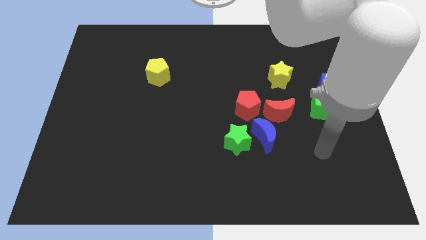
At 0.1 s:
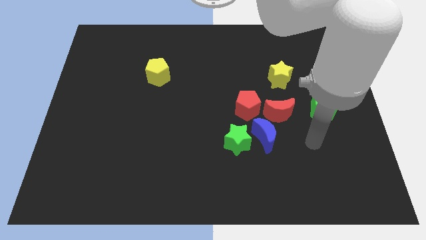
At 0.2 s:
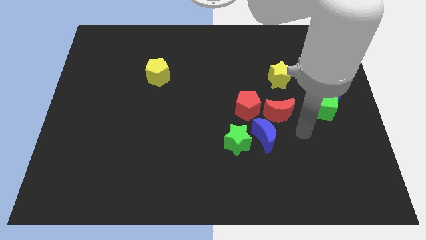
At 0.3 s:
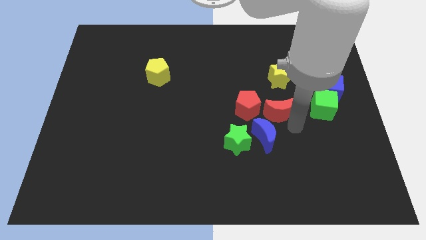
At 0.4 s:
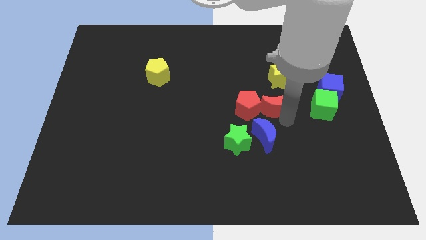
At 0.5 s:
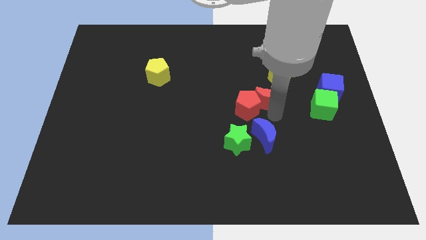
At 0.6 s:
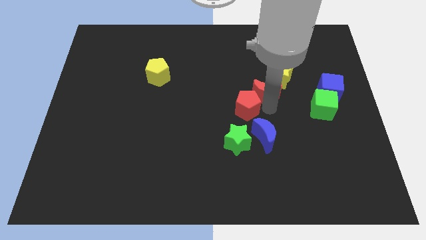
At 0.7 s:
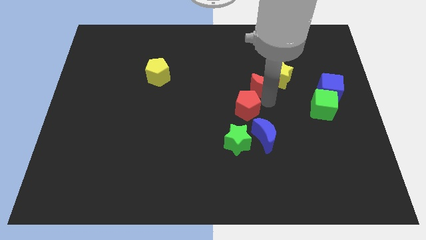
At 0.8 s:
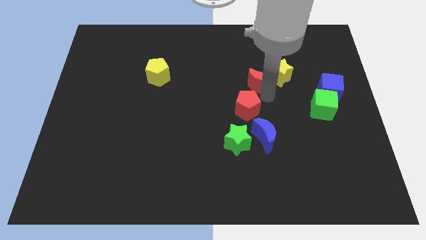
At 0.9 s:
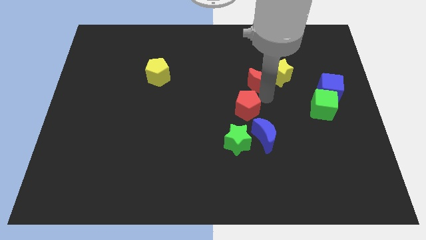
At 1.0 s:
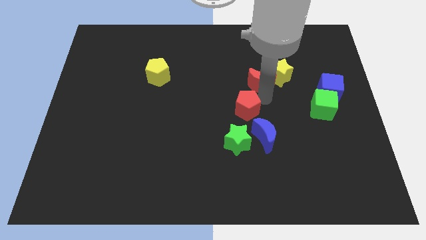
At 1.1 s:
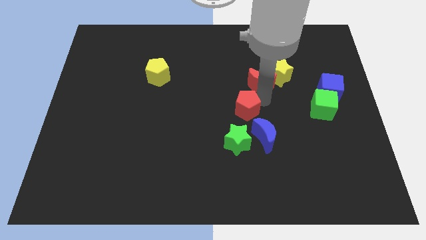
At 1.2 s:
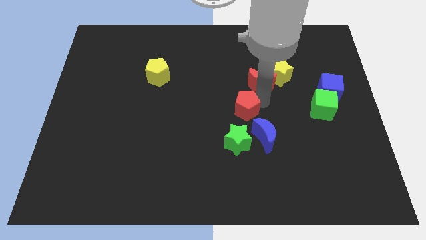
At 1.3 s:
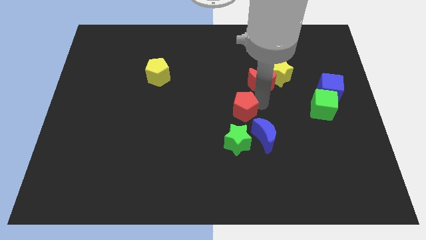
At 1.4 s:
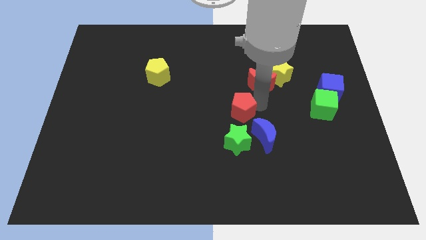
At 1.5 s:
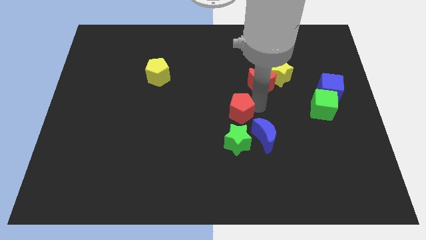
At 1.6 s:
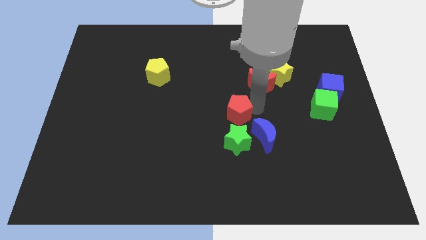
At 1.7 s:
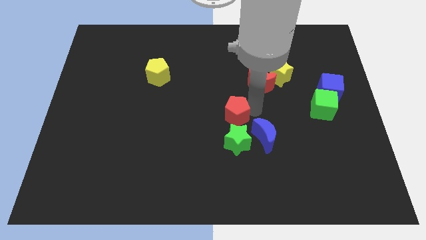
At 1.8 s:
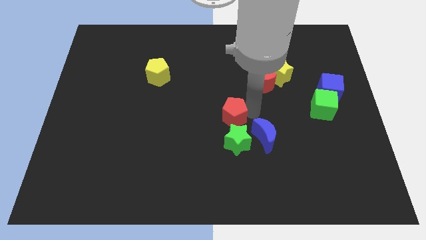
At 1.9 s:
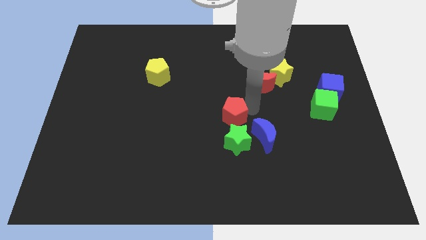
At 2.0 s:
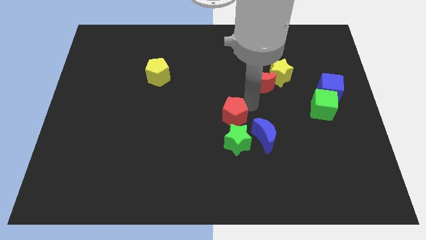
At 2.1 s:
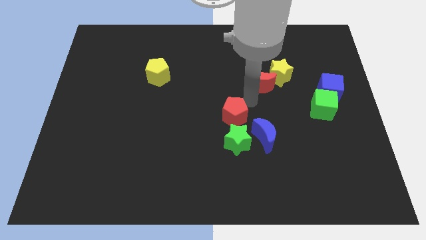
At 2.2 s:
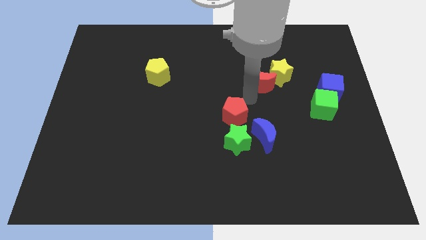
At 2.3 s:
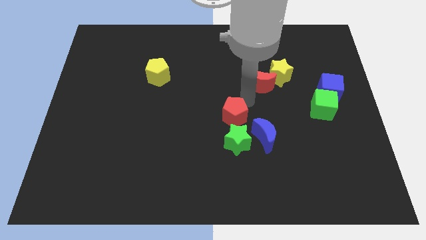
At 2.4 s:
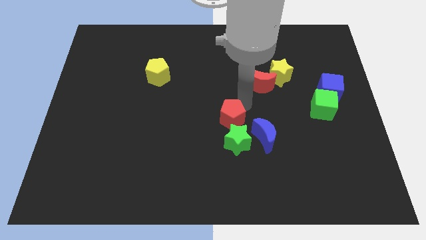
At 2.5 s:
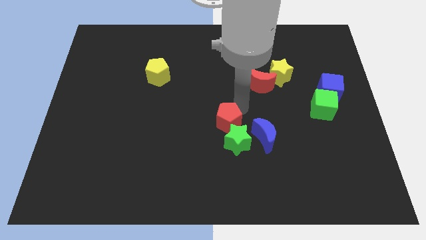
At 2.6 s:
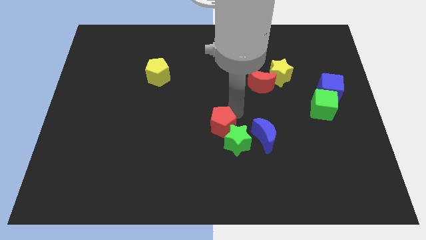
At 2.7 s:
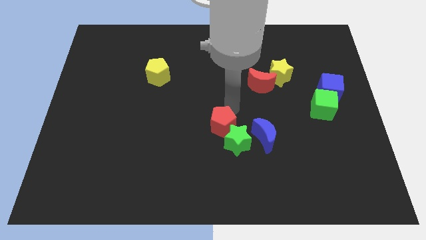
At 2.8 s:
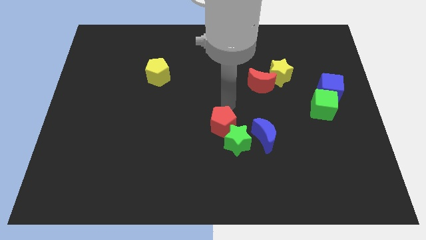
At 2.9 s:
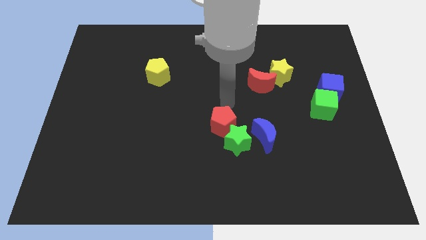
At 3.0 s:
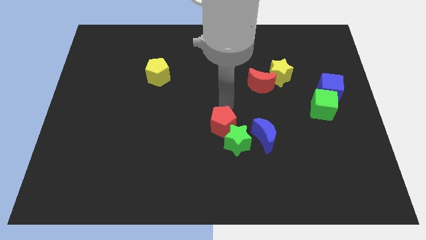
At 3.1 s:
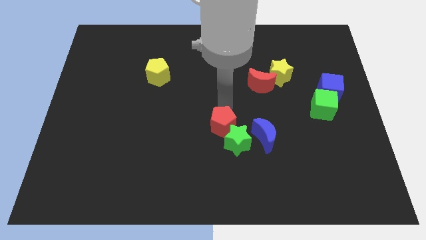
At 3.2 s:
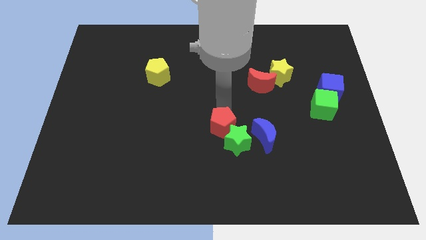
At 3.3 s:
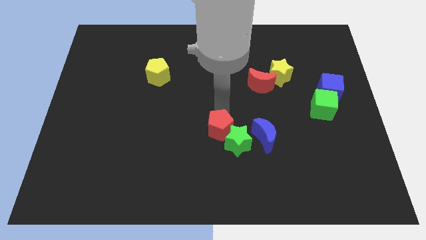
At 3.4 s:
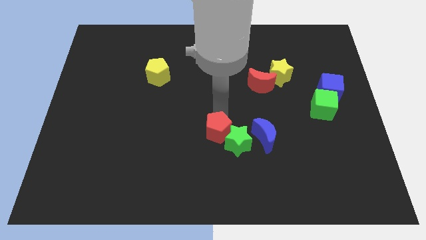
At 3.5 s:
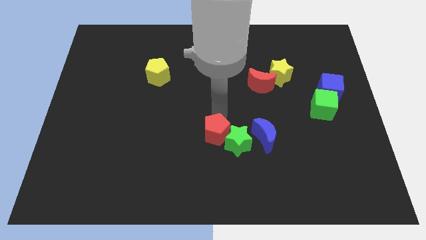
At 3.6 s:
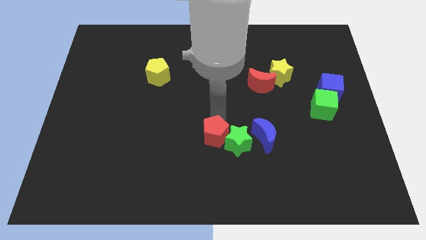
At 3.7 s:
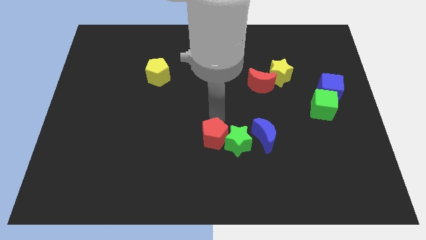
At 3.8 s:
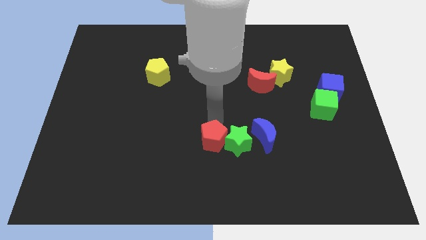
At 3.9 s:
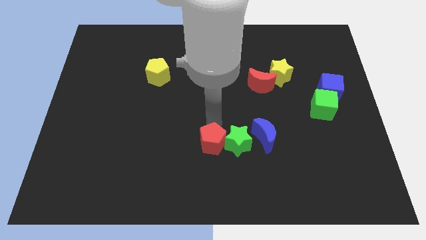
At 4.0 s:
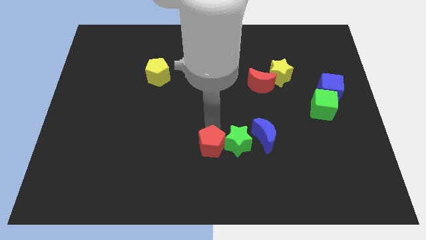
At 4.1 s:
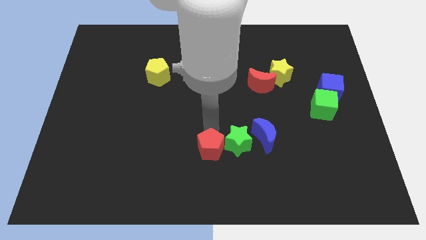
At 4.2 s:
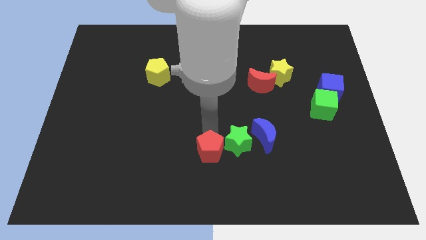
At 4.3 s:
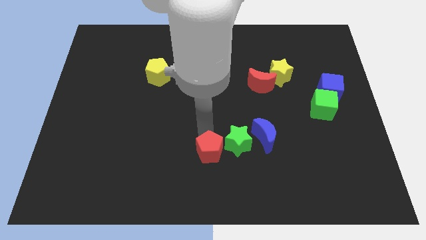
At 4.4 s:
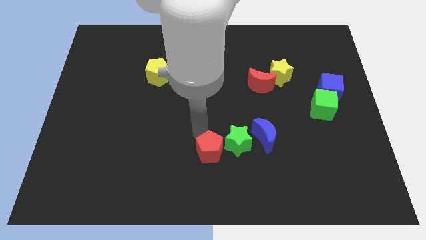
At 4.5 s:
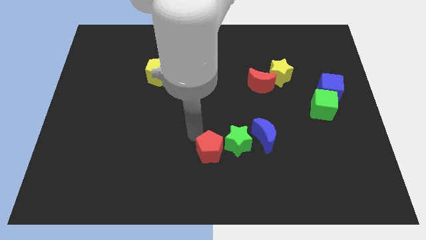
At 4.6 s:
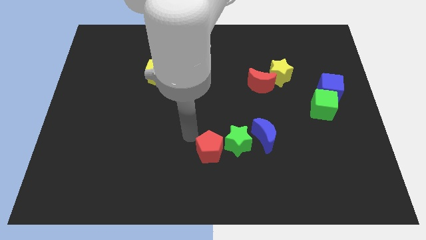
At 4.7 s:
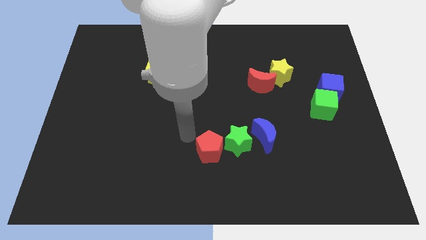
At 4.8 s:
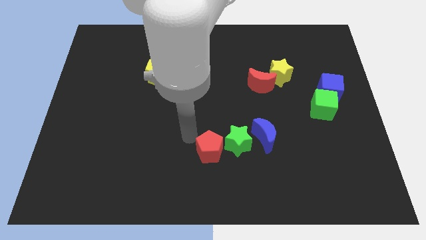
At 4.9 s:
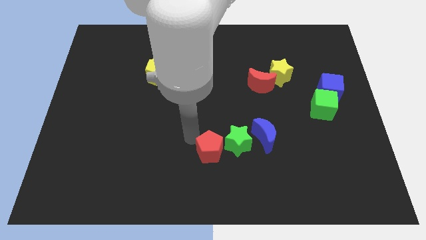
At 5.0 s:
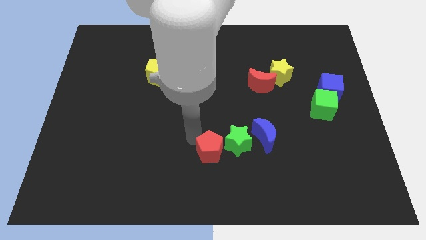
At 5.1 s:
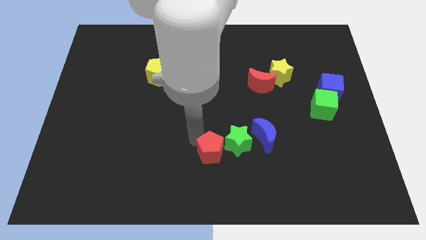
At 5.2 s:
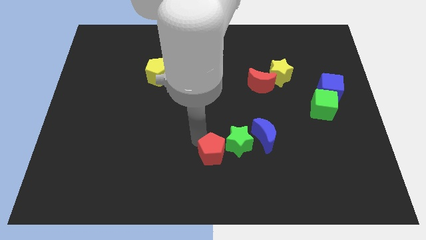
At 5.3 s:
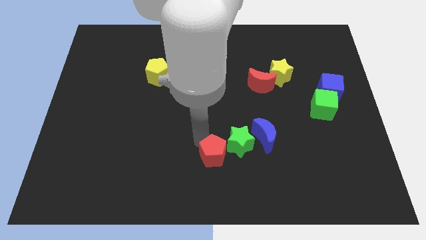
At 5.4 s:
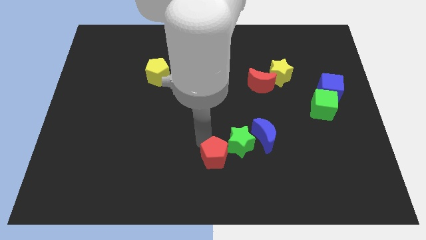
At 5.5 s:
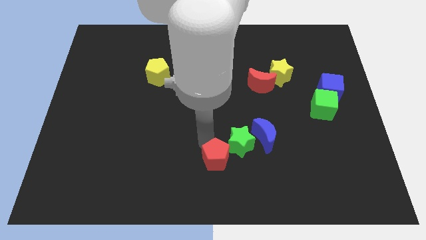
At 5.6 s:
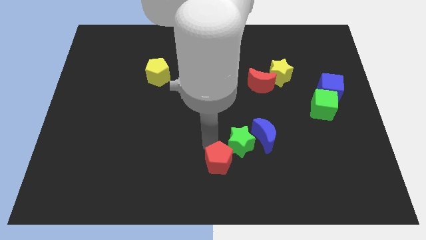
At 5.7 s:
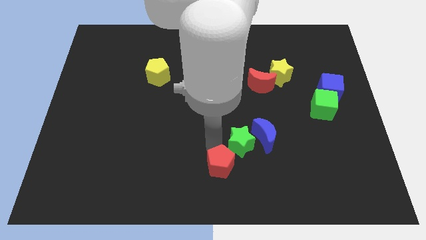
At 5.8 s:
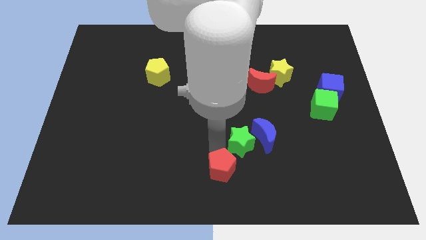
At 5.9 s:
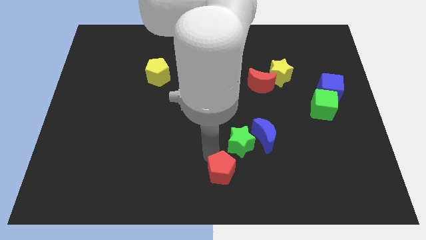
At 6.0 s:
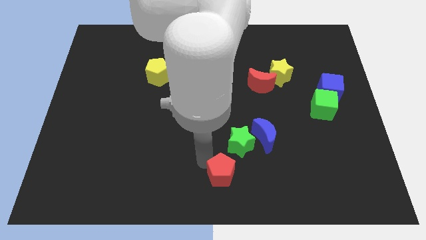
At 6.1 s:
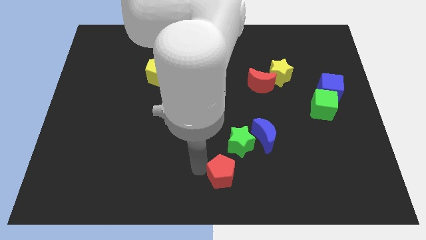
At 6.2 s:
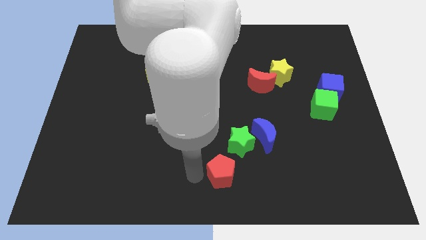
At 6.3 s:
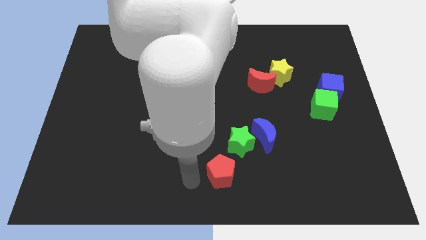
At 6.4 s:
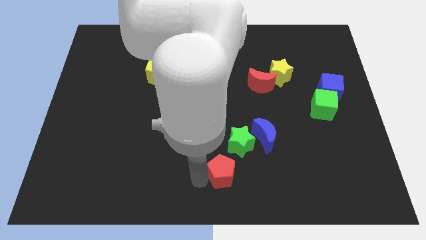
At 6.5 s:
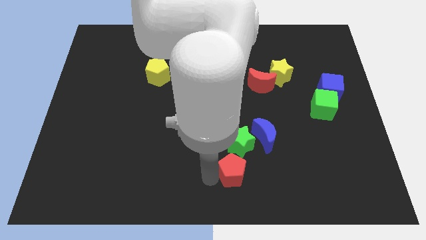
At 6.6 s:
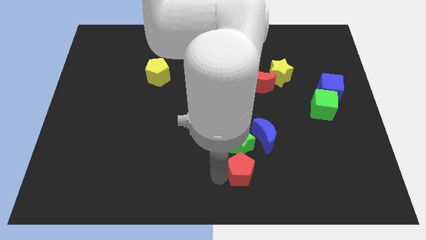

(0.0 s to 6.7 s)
push the red pentagon to the bottom right of the green star

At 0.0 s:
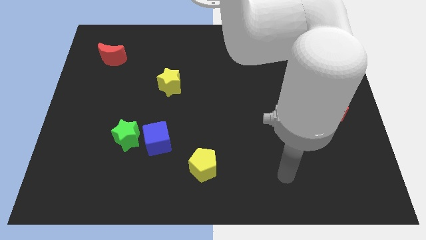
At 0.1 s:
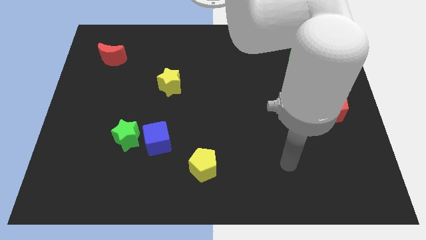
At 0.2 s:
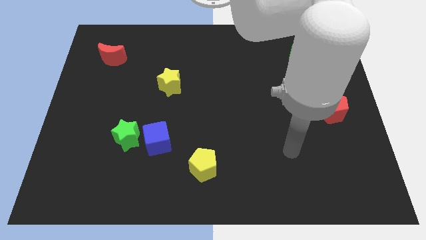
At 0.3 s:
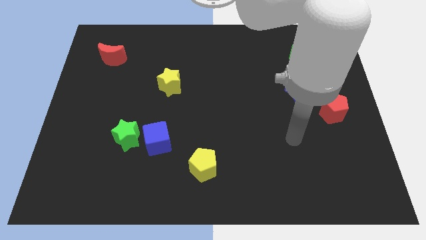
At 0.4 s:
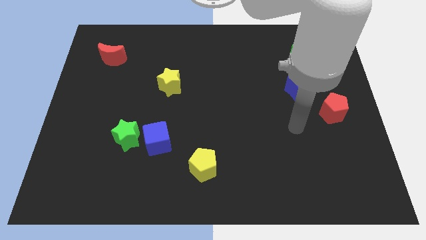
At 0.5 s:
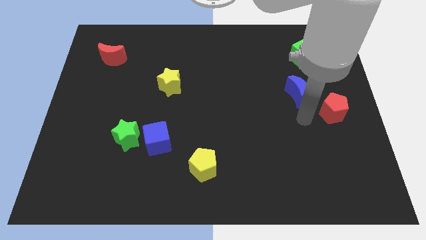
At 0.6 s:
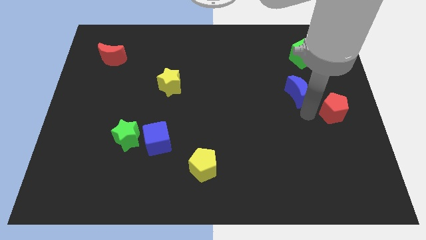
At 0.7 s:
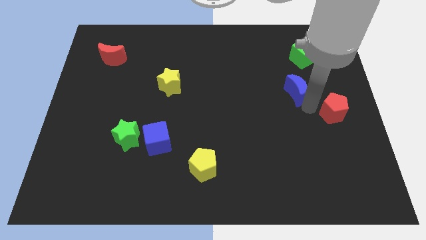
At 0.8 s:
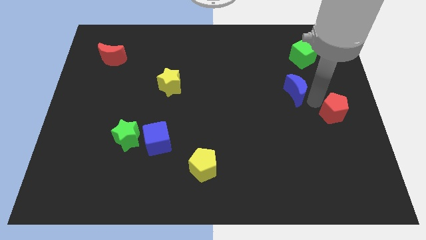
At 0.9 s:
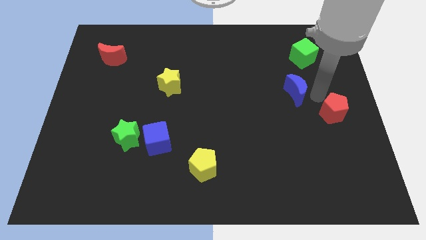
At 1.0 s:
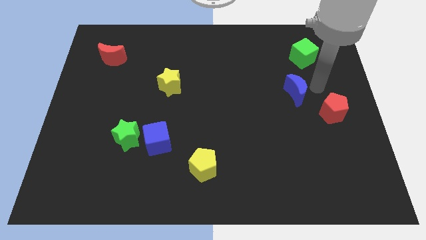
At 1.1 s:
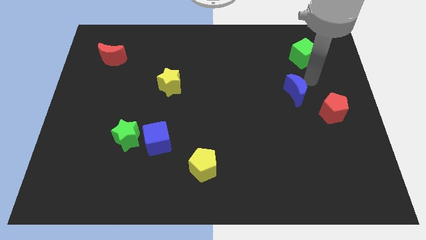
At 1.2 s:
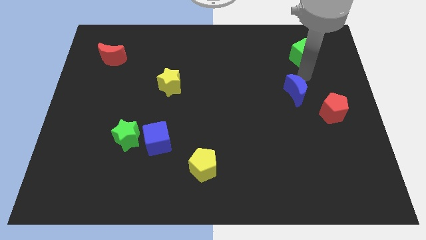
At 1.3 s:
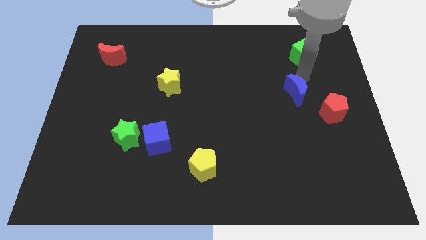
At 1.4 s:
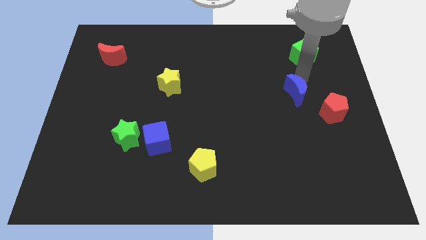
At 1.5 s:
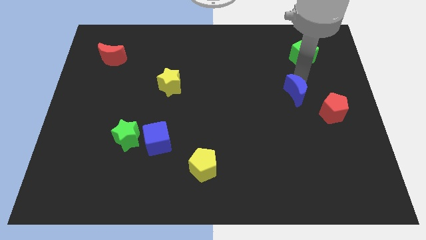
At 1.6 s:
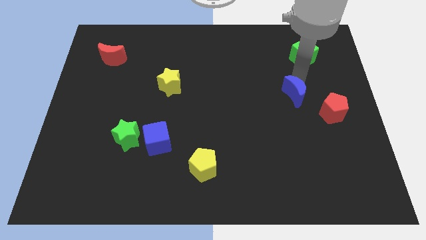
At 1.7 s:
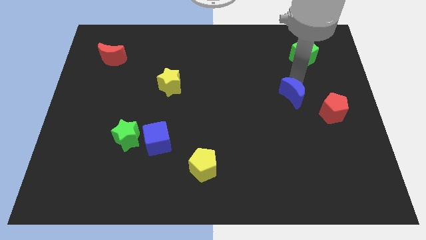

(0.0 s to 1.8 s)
move the blue moon to the left of the red pentagon
